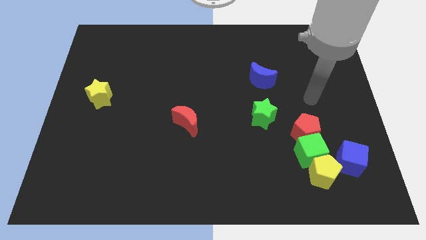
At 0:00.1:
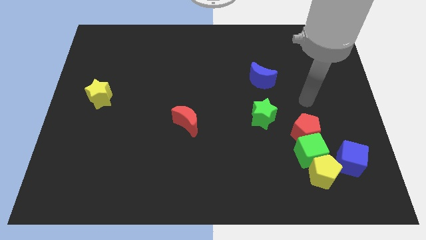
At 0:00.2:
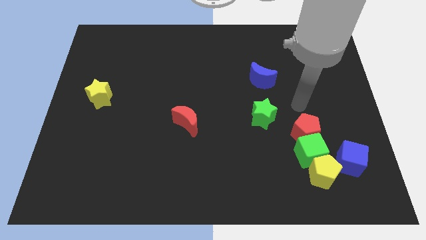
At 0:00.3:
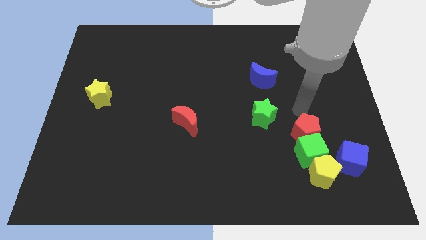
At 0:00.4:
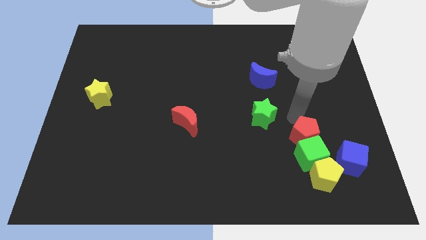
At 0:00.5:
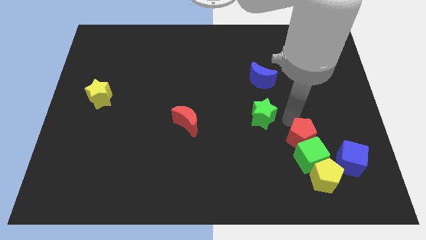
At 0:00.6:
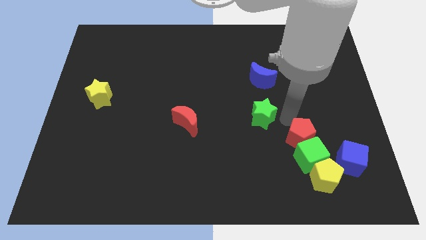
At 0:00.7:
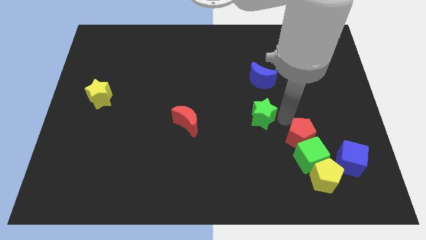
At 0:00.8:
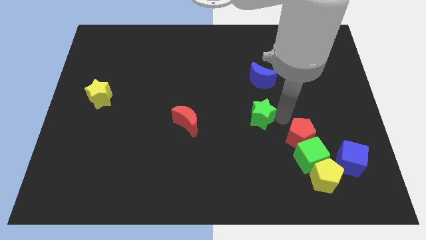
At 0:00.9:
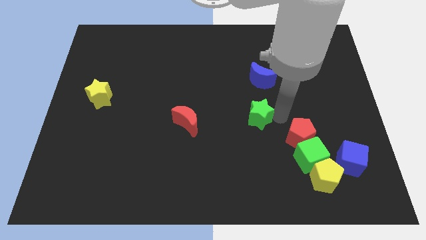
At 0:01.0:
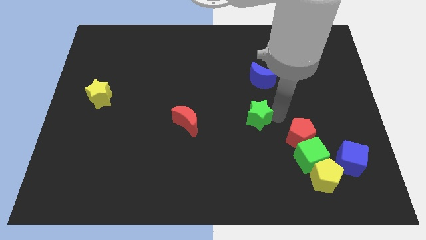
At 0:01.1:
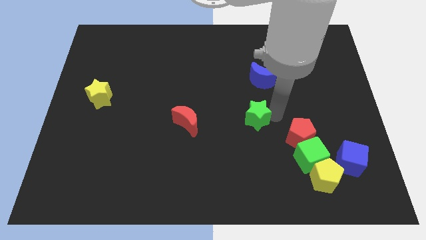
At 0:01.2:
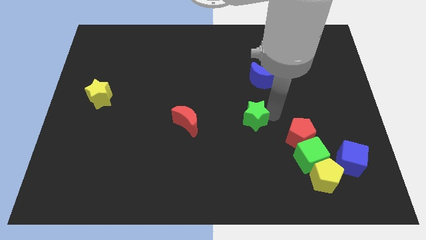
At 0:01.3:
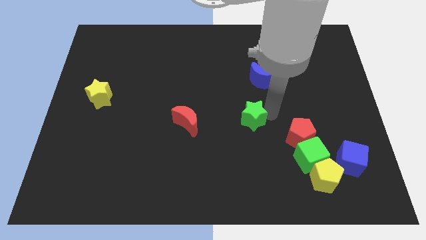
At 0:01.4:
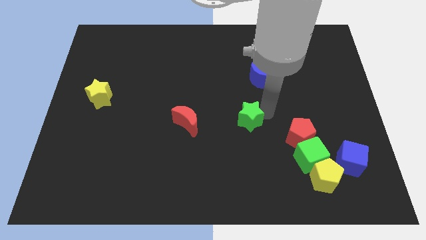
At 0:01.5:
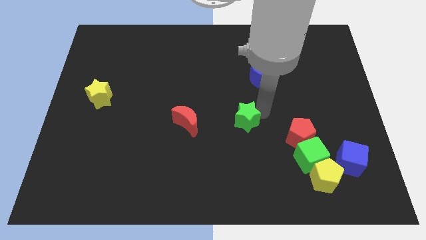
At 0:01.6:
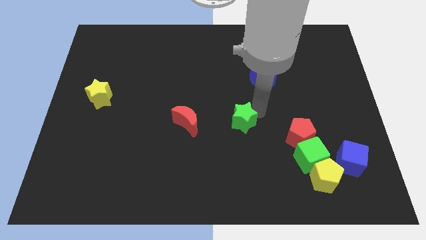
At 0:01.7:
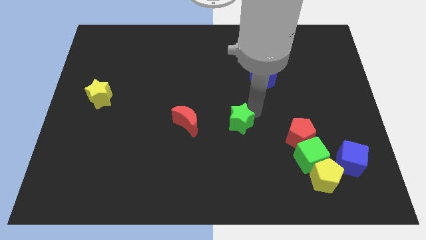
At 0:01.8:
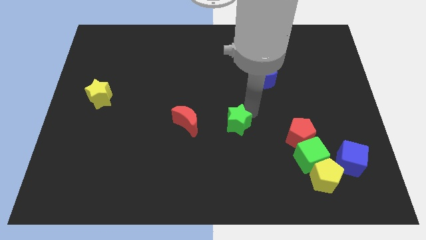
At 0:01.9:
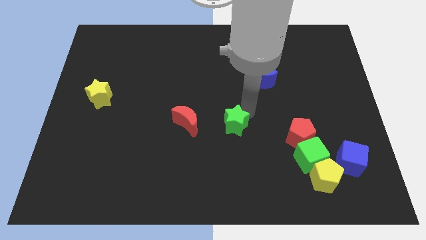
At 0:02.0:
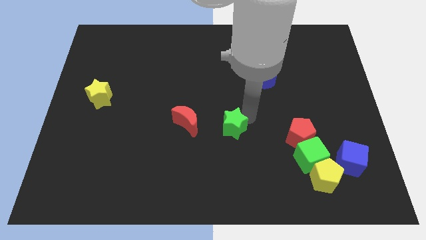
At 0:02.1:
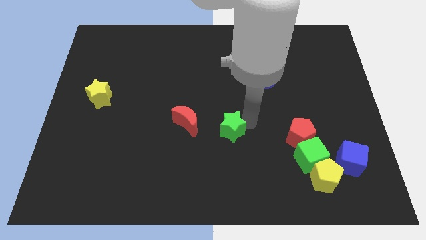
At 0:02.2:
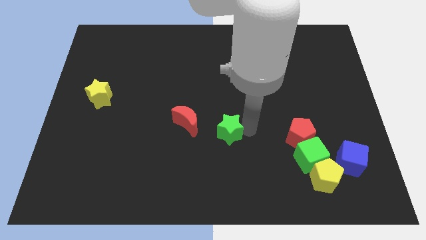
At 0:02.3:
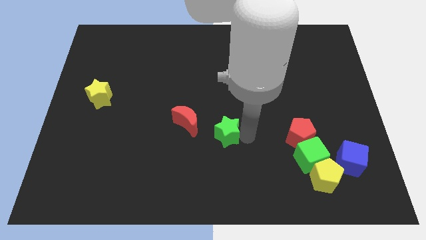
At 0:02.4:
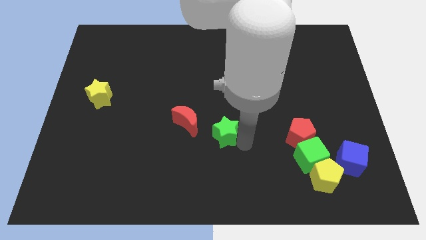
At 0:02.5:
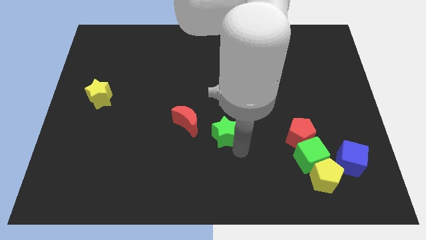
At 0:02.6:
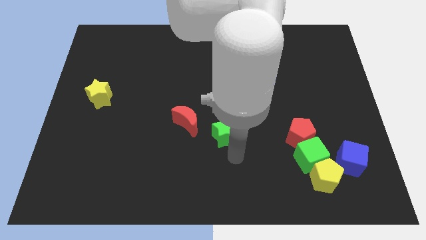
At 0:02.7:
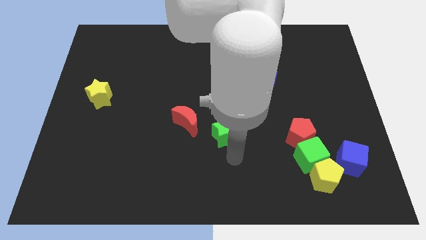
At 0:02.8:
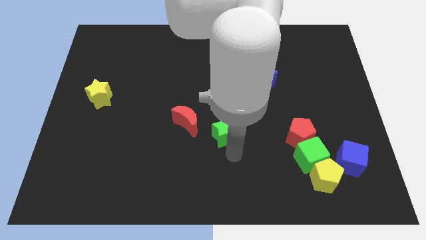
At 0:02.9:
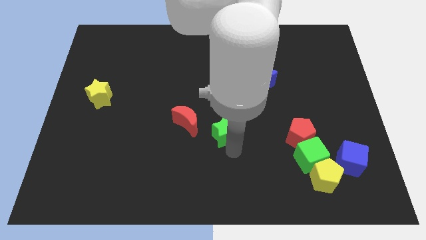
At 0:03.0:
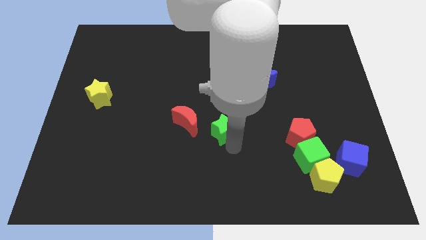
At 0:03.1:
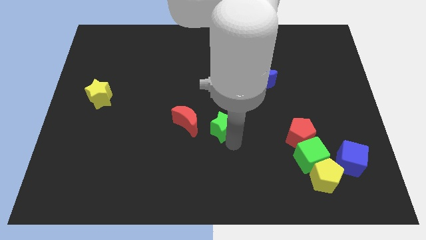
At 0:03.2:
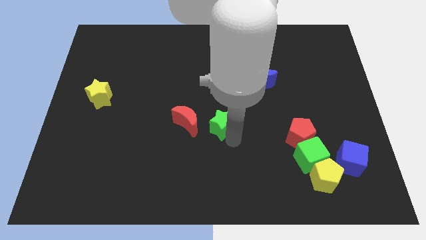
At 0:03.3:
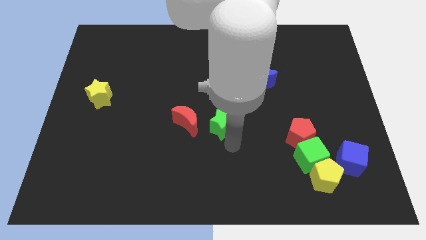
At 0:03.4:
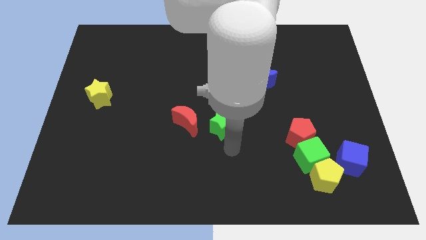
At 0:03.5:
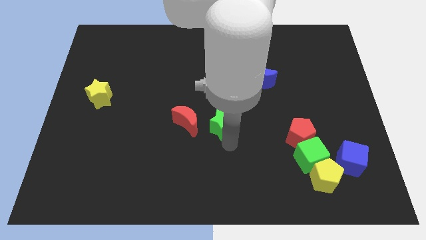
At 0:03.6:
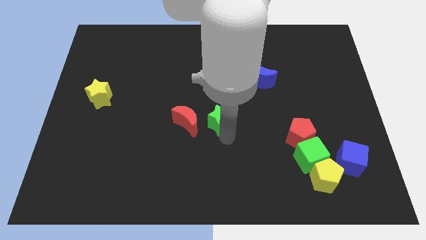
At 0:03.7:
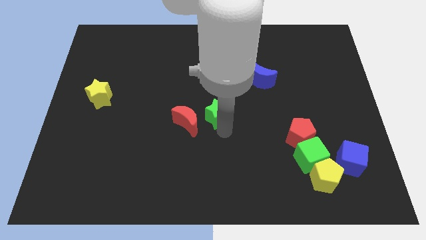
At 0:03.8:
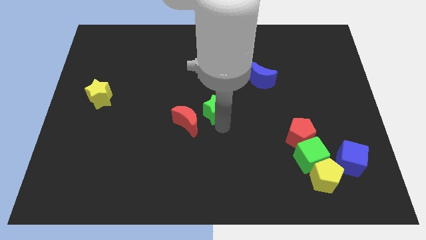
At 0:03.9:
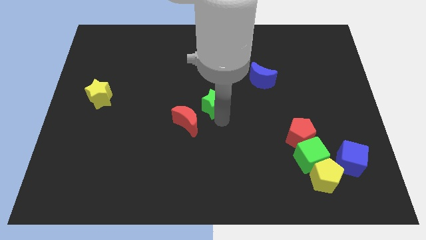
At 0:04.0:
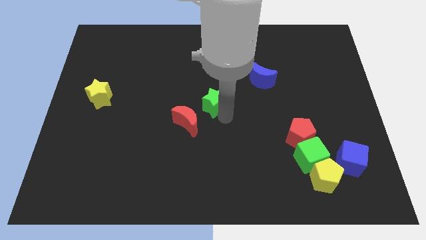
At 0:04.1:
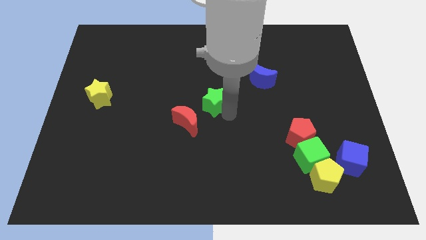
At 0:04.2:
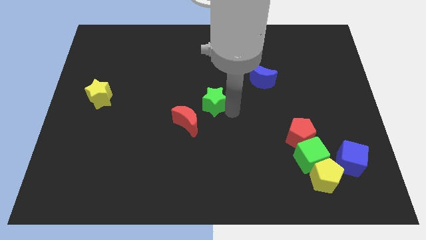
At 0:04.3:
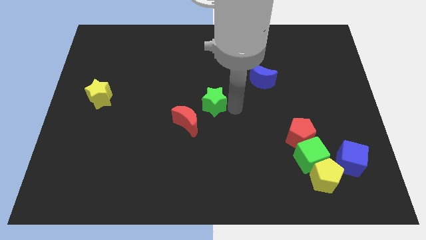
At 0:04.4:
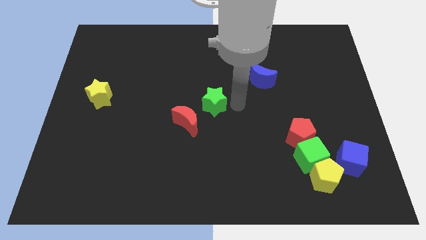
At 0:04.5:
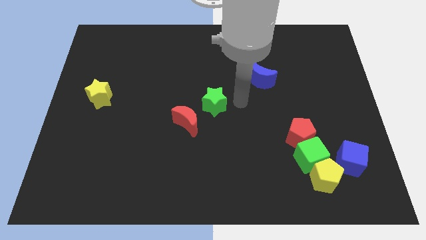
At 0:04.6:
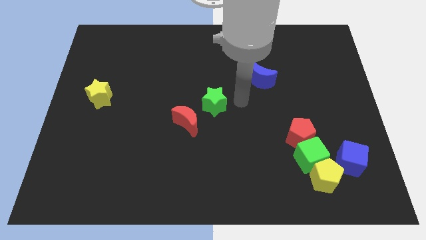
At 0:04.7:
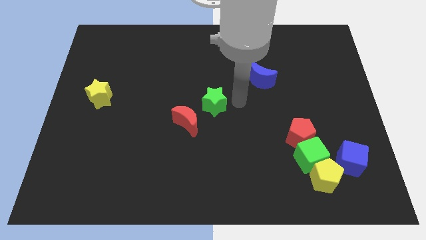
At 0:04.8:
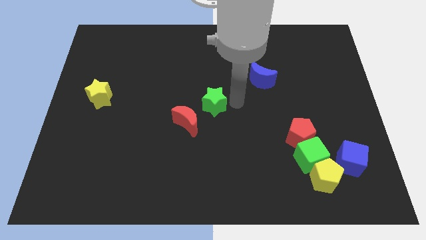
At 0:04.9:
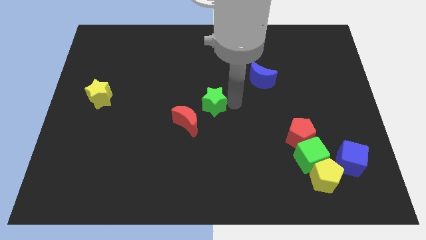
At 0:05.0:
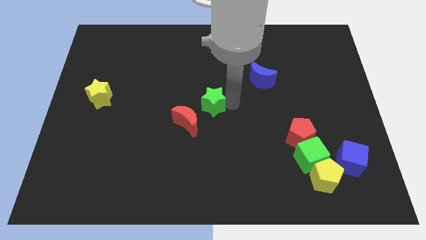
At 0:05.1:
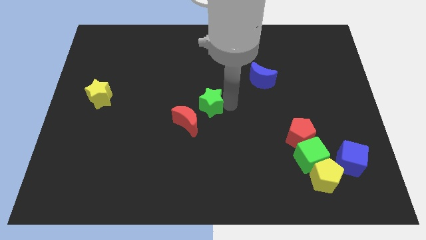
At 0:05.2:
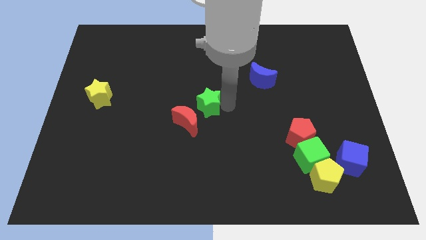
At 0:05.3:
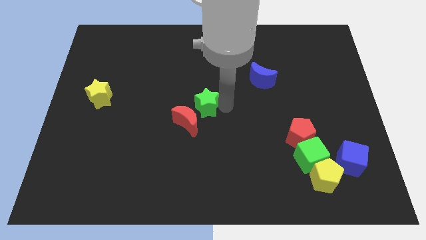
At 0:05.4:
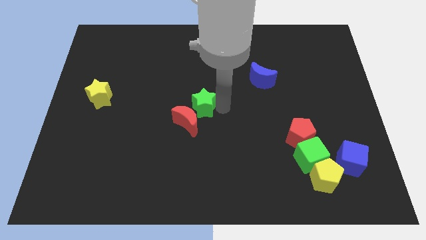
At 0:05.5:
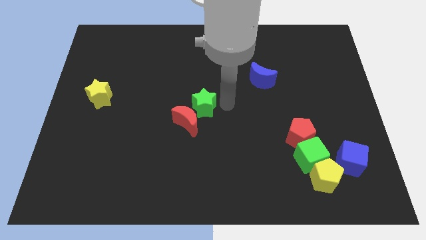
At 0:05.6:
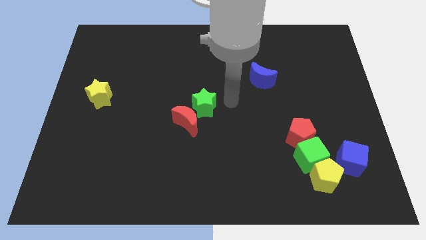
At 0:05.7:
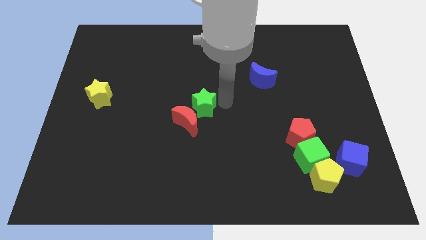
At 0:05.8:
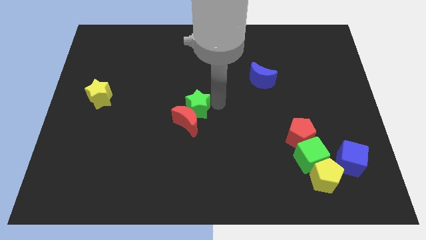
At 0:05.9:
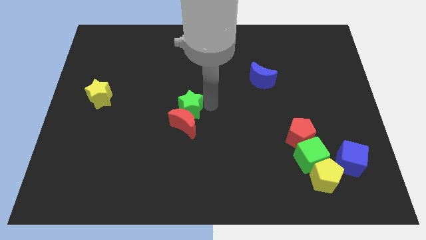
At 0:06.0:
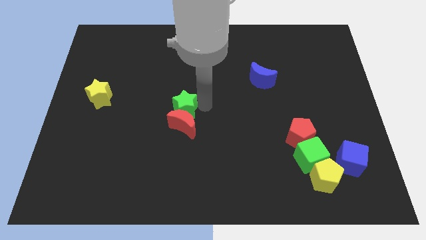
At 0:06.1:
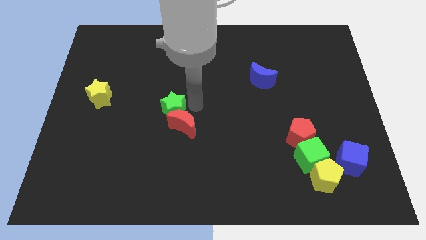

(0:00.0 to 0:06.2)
push the green star left

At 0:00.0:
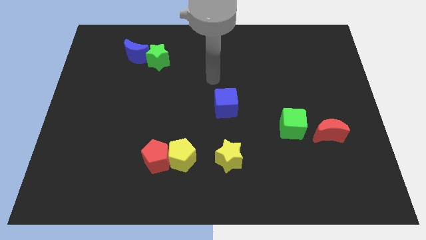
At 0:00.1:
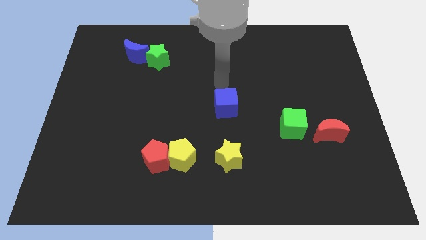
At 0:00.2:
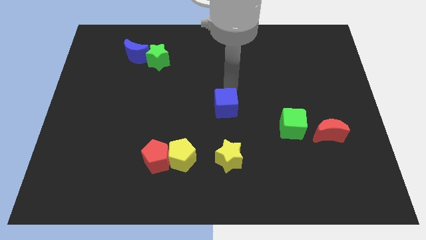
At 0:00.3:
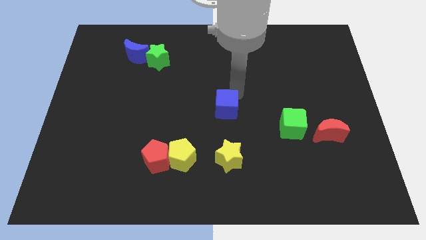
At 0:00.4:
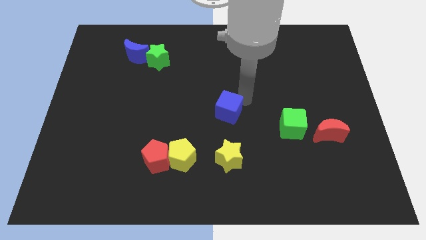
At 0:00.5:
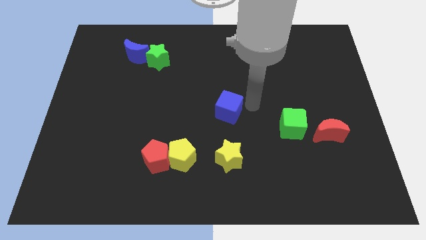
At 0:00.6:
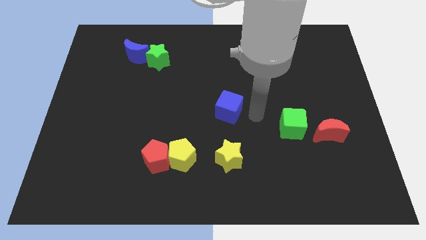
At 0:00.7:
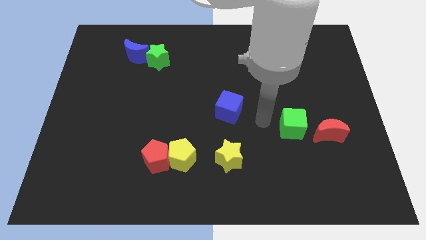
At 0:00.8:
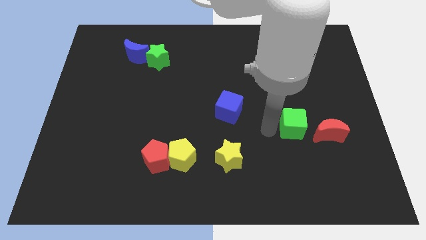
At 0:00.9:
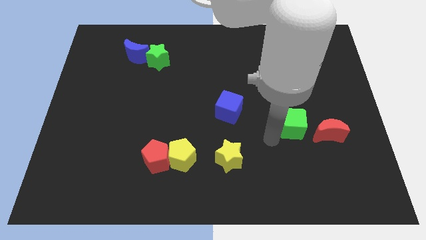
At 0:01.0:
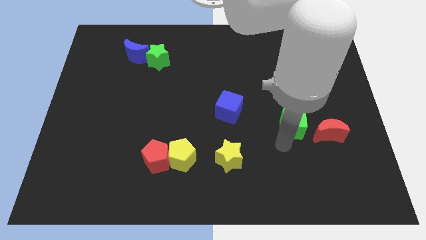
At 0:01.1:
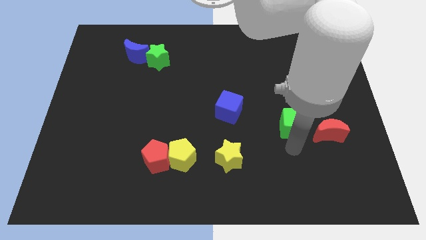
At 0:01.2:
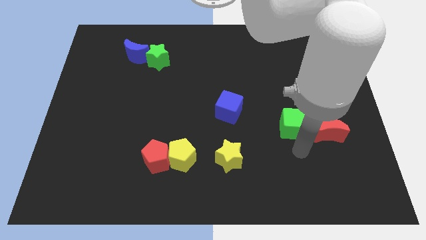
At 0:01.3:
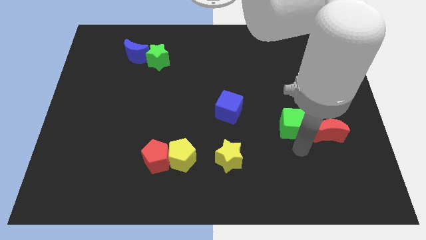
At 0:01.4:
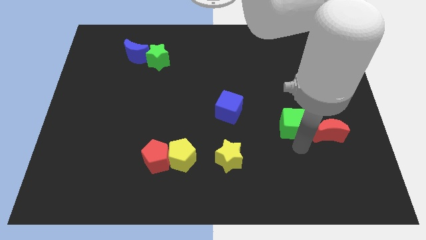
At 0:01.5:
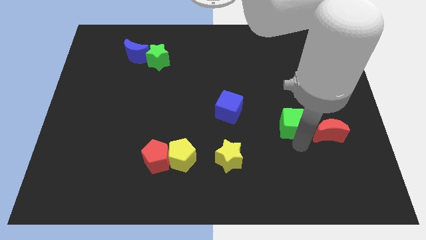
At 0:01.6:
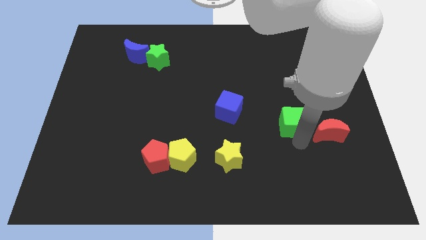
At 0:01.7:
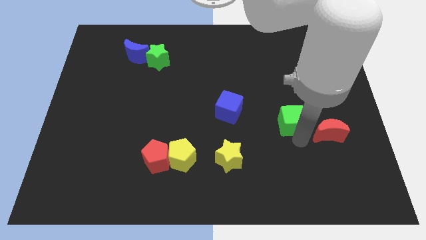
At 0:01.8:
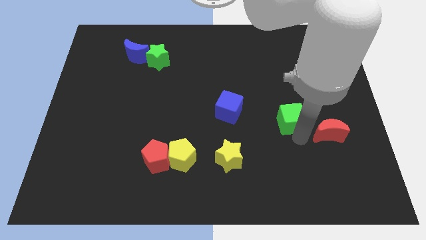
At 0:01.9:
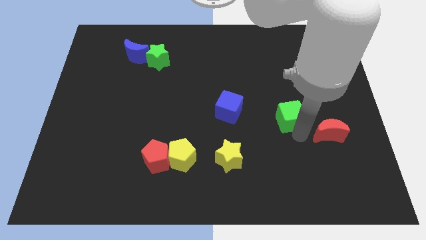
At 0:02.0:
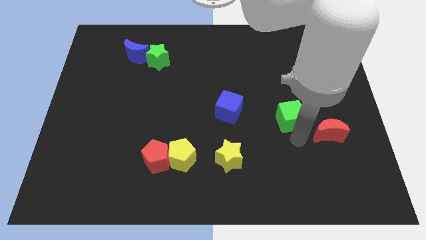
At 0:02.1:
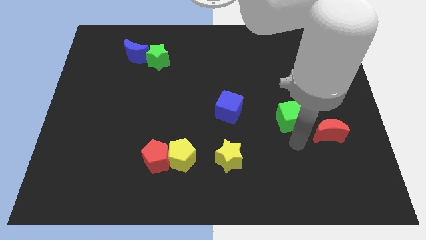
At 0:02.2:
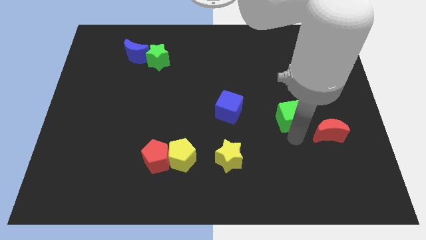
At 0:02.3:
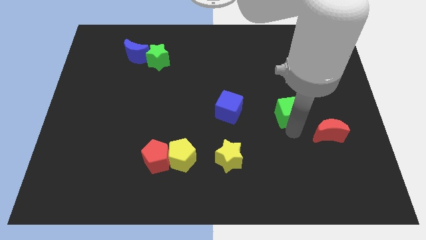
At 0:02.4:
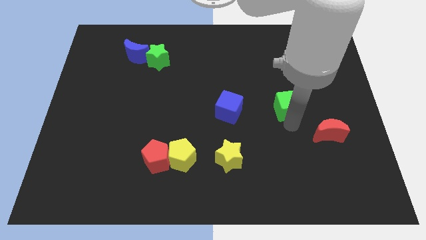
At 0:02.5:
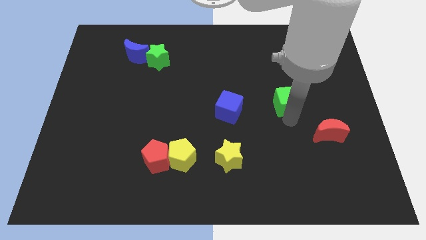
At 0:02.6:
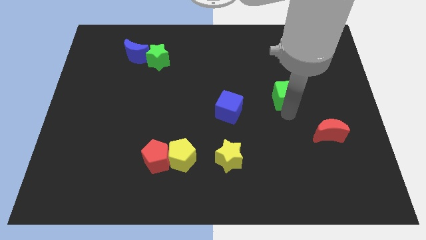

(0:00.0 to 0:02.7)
push the green cube a little bit upwards
